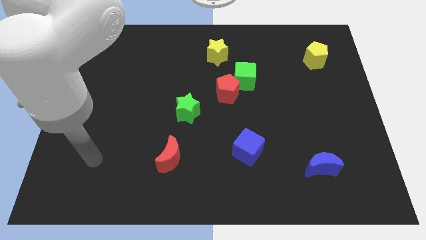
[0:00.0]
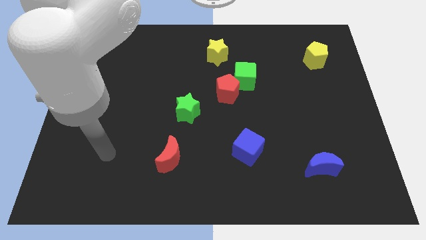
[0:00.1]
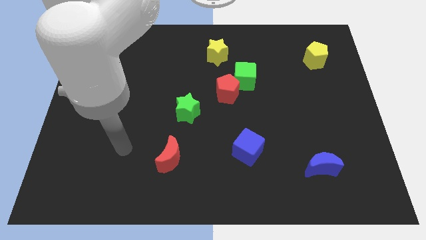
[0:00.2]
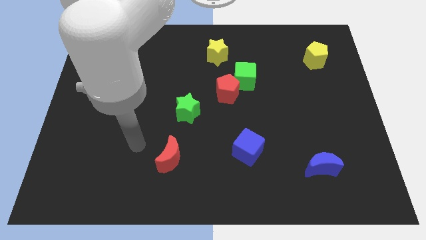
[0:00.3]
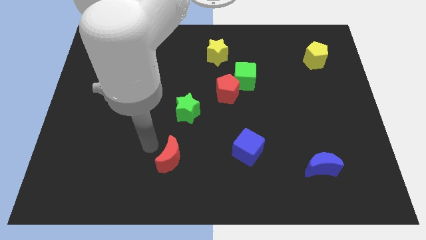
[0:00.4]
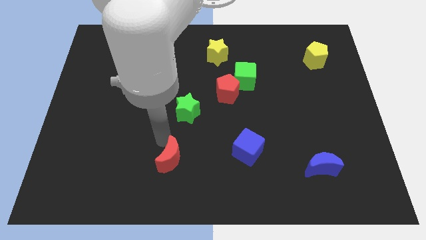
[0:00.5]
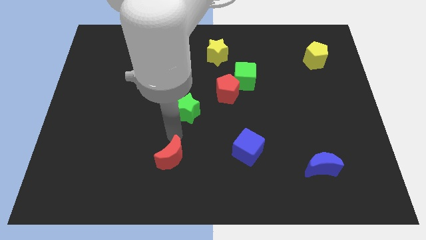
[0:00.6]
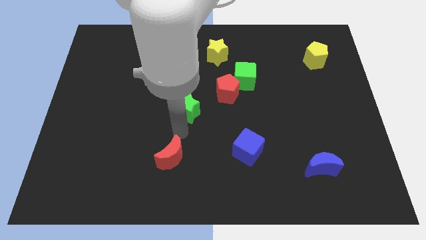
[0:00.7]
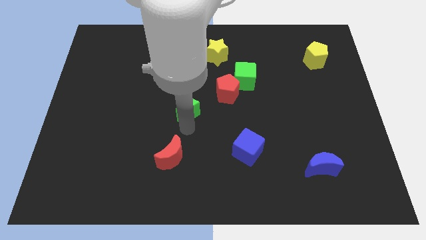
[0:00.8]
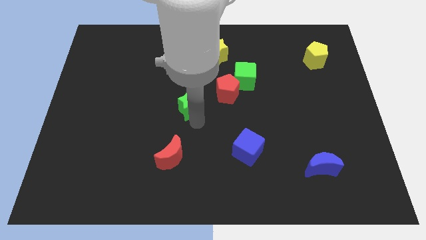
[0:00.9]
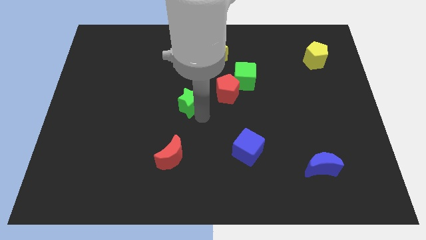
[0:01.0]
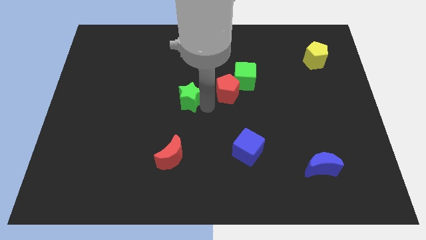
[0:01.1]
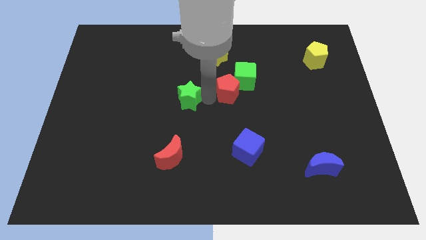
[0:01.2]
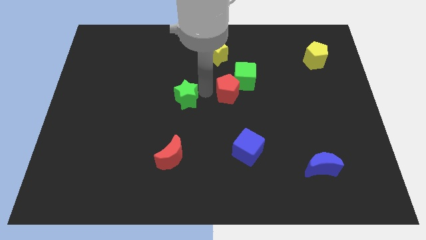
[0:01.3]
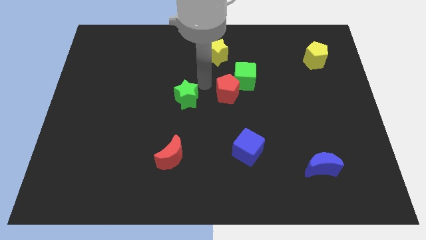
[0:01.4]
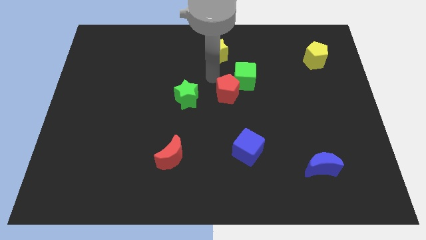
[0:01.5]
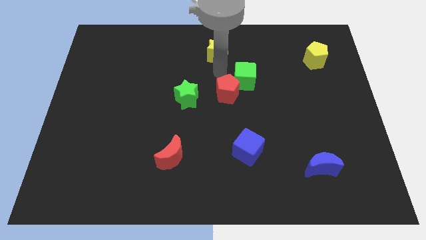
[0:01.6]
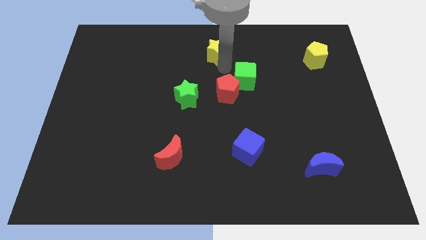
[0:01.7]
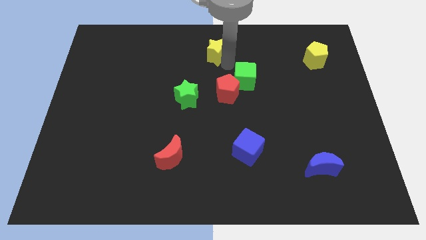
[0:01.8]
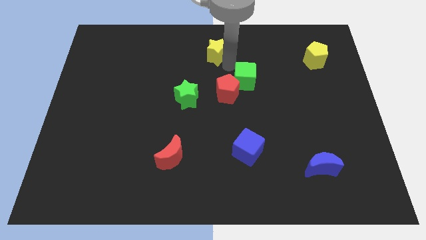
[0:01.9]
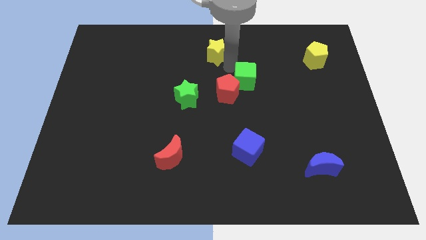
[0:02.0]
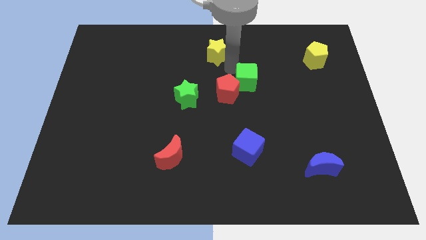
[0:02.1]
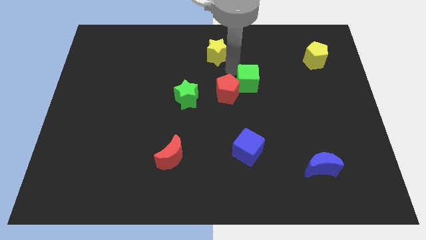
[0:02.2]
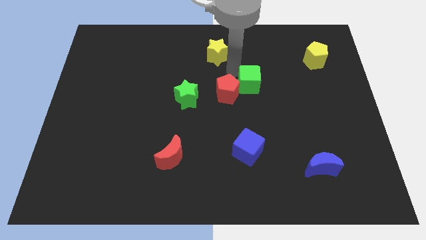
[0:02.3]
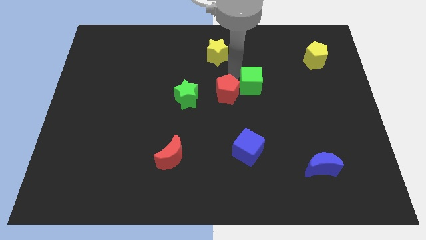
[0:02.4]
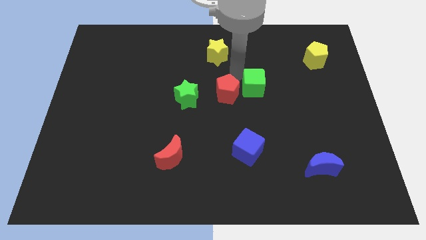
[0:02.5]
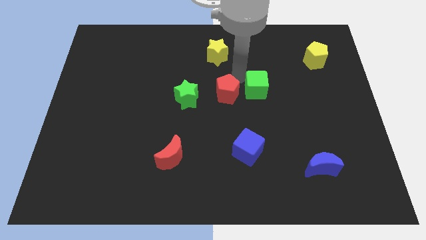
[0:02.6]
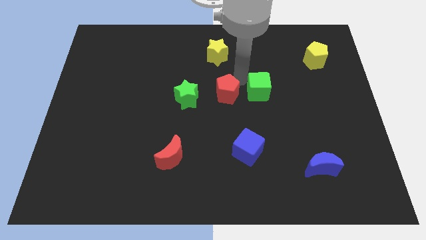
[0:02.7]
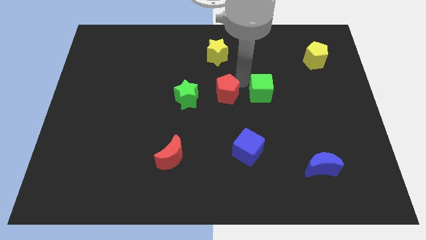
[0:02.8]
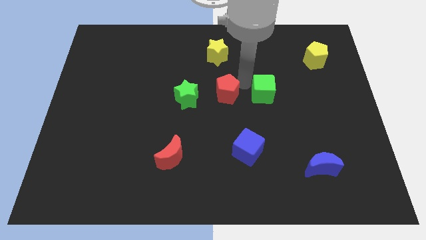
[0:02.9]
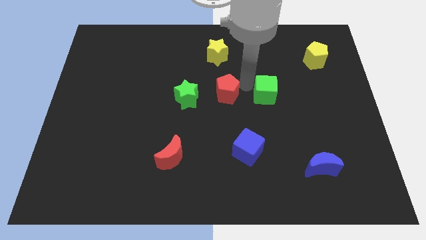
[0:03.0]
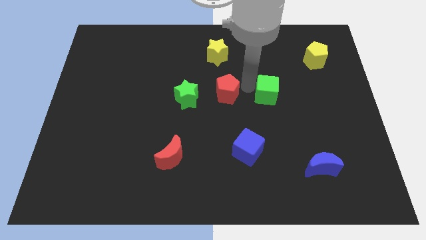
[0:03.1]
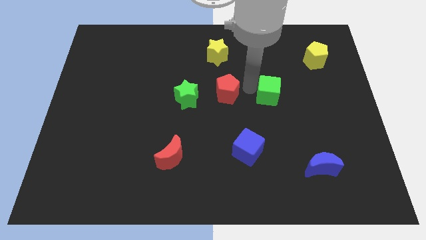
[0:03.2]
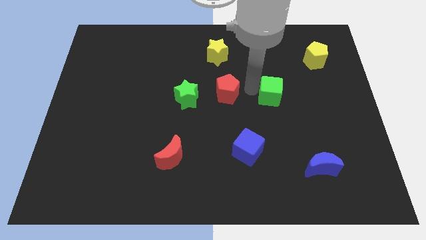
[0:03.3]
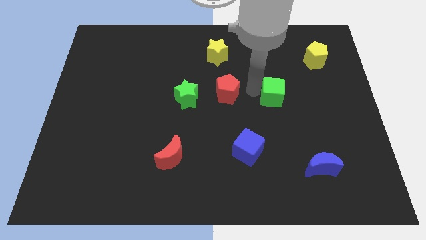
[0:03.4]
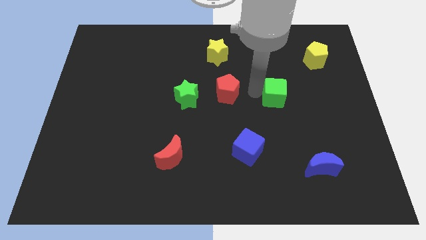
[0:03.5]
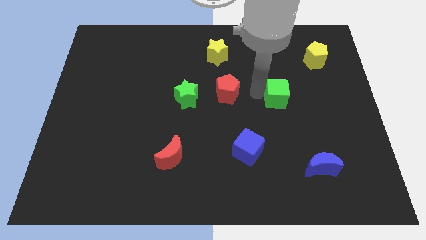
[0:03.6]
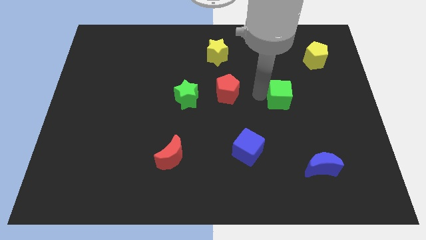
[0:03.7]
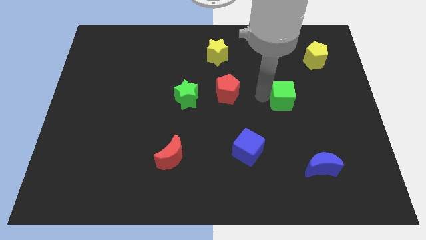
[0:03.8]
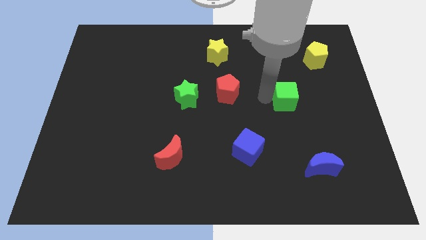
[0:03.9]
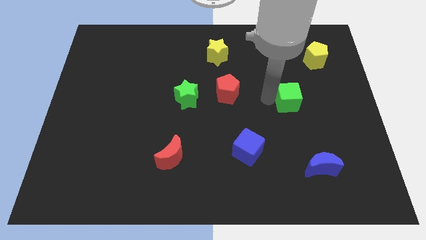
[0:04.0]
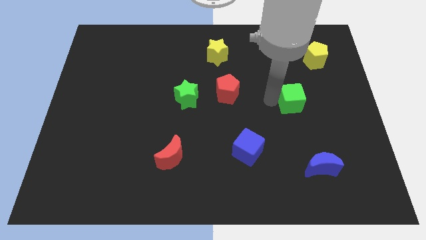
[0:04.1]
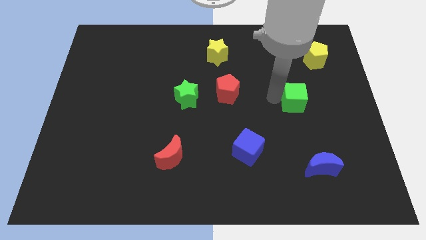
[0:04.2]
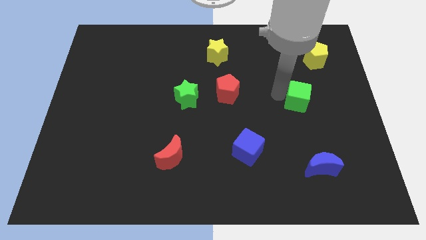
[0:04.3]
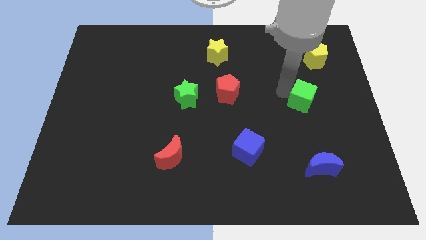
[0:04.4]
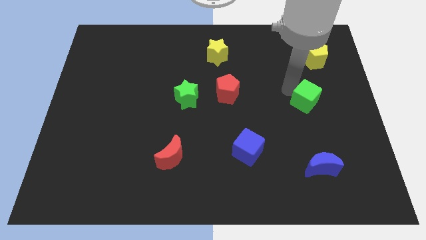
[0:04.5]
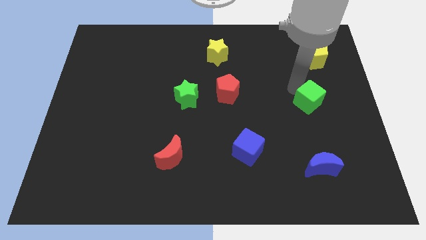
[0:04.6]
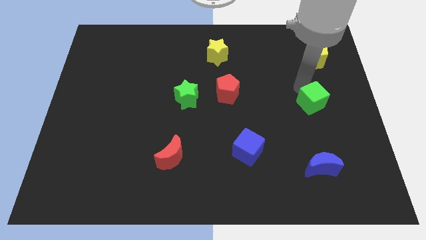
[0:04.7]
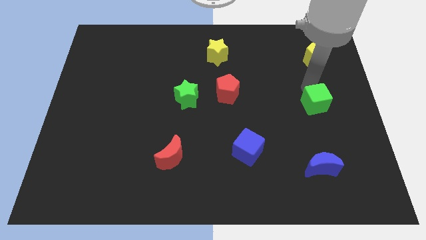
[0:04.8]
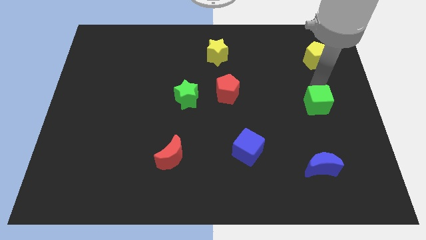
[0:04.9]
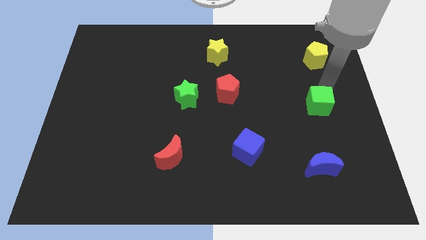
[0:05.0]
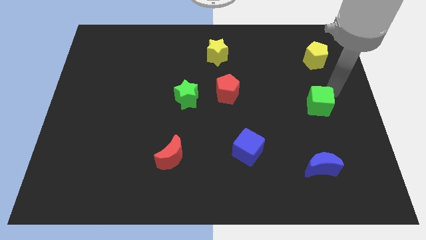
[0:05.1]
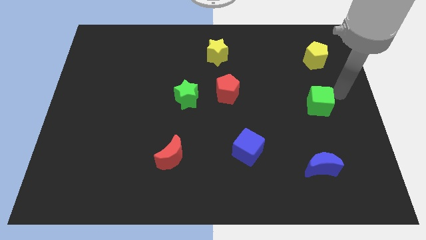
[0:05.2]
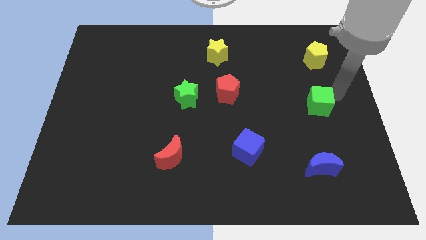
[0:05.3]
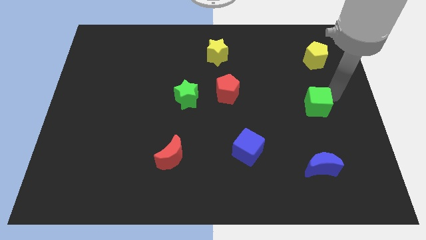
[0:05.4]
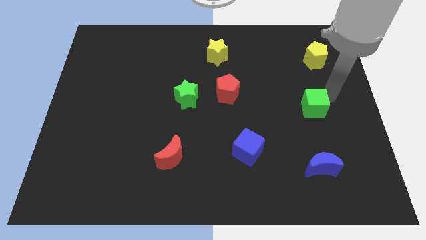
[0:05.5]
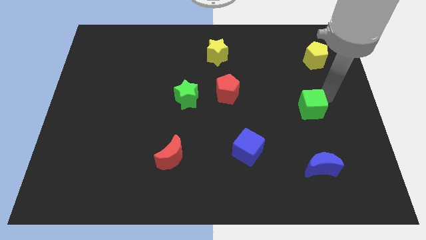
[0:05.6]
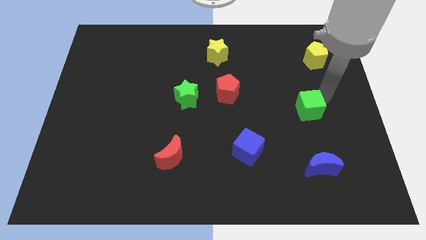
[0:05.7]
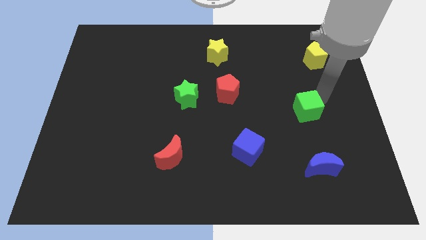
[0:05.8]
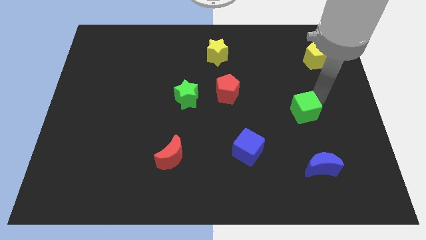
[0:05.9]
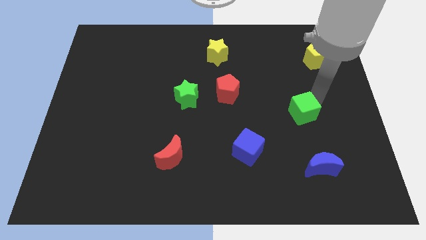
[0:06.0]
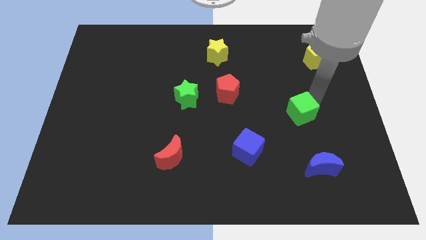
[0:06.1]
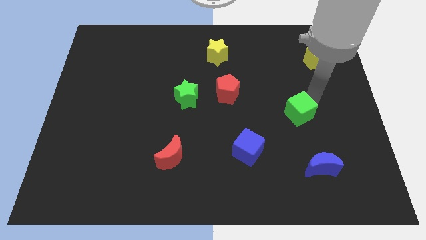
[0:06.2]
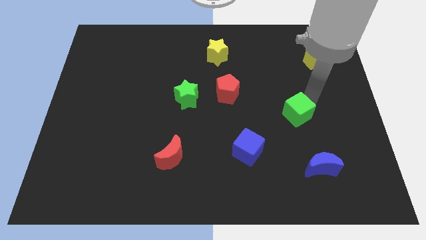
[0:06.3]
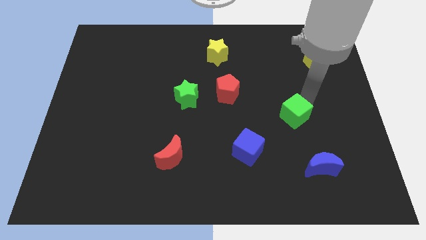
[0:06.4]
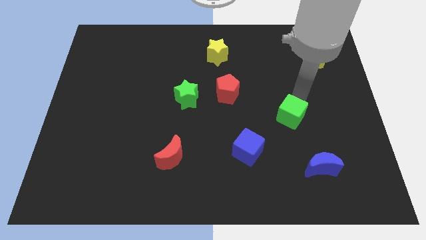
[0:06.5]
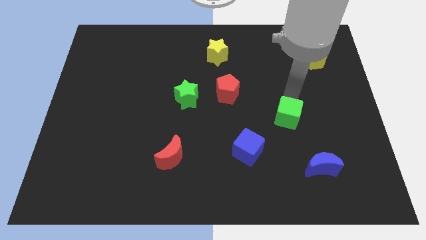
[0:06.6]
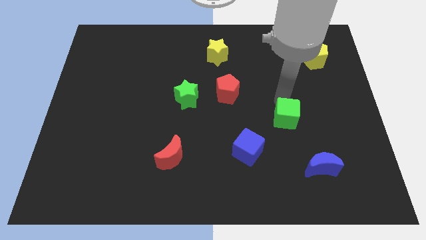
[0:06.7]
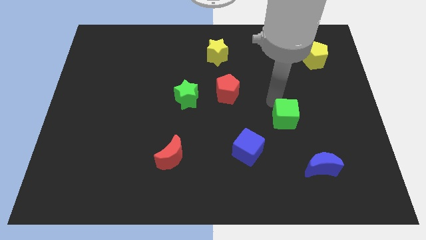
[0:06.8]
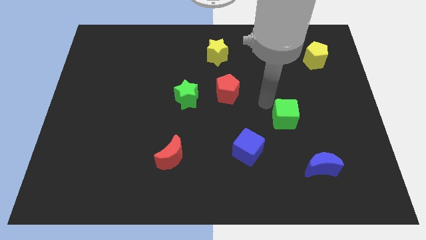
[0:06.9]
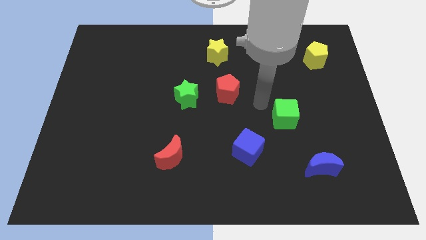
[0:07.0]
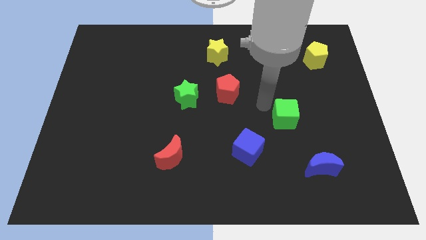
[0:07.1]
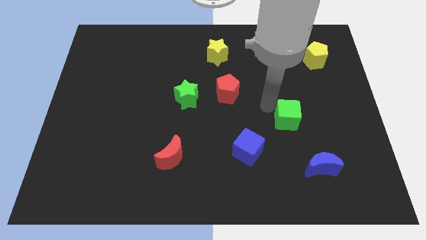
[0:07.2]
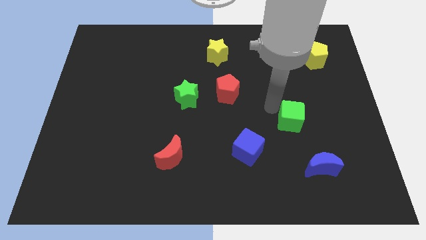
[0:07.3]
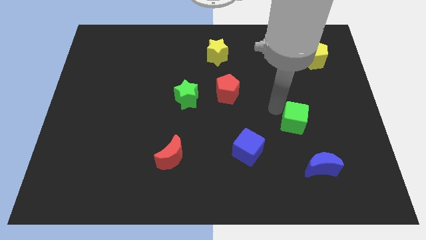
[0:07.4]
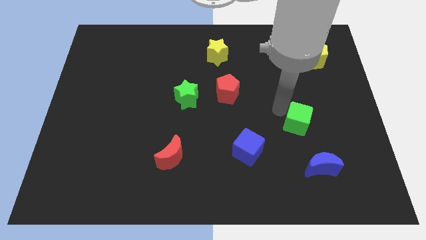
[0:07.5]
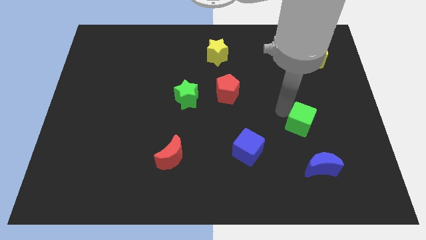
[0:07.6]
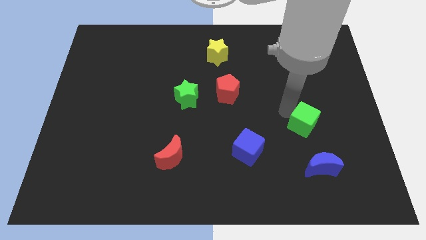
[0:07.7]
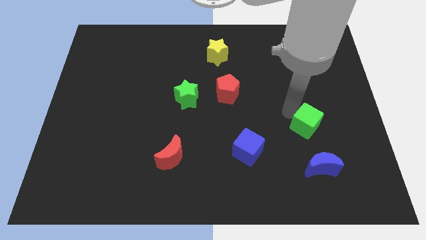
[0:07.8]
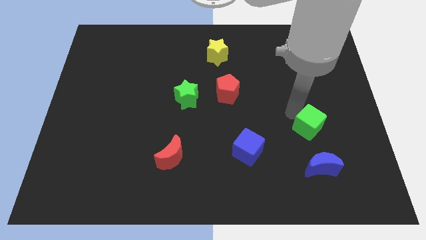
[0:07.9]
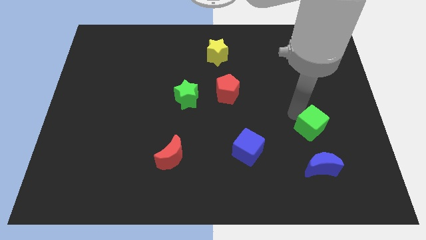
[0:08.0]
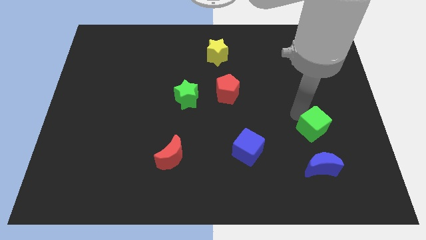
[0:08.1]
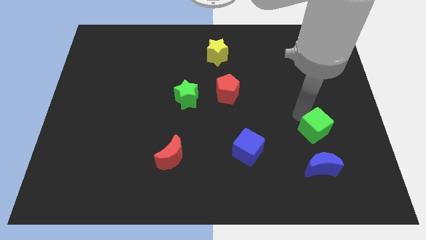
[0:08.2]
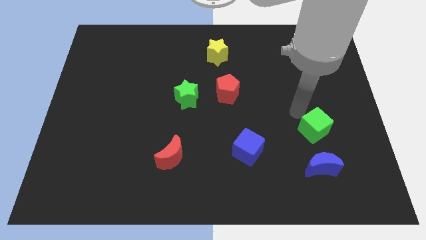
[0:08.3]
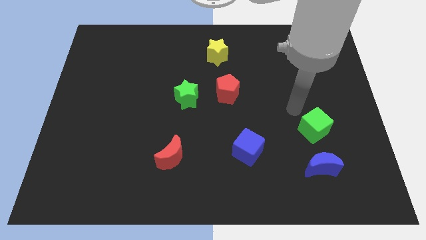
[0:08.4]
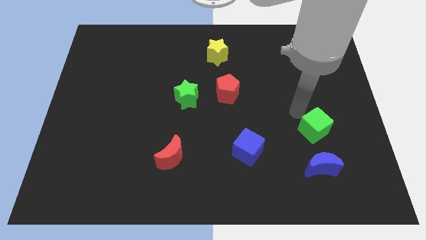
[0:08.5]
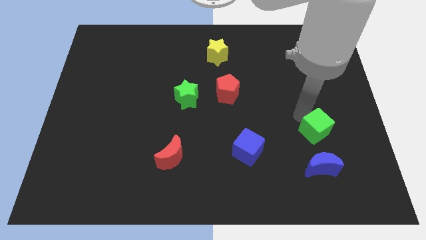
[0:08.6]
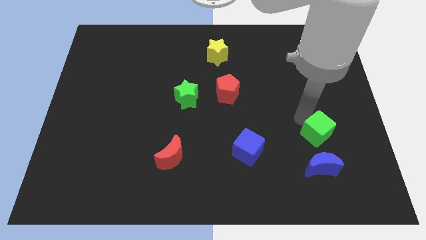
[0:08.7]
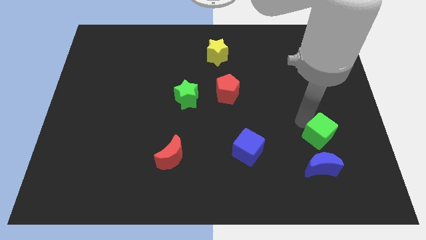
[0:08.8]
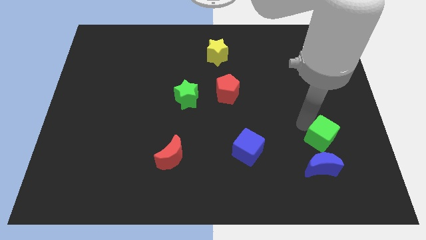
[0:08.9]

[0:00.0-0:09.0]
push the green cube to the top right of the blue moon
